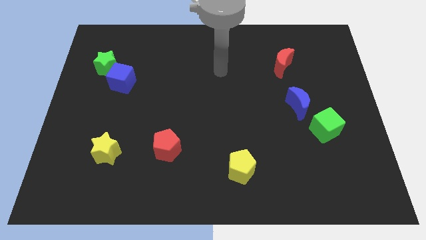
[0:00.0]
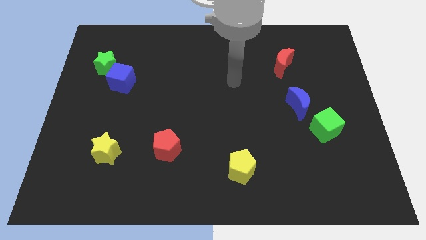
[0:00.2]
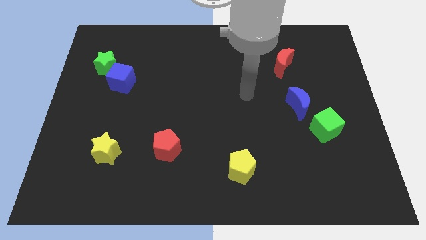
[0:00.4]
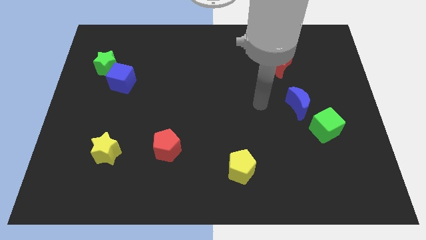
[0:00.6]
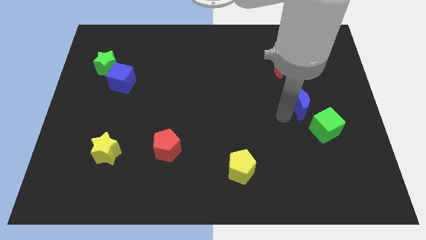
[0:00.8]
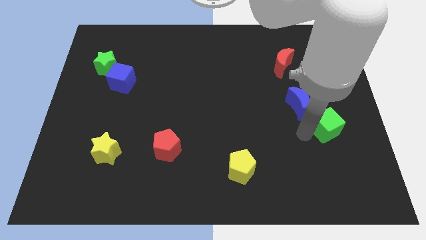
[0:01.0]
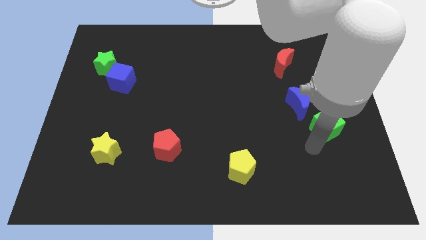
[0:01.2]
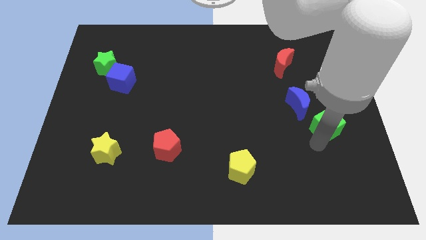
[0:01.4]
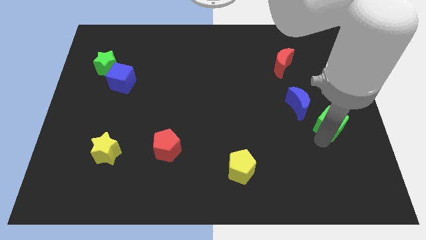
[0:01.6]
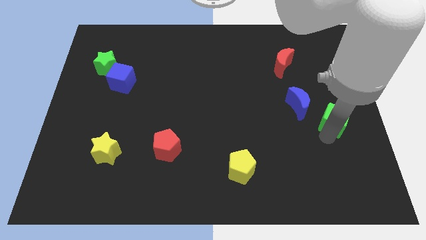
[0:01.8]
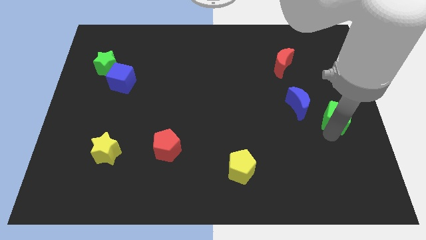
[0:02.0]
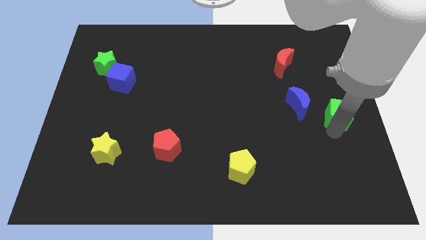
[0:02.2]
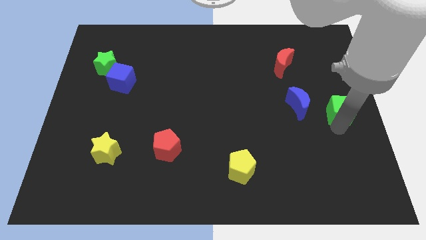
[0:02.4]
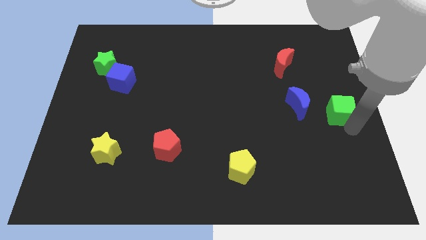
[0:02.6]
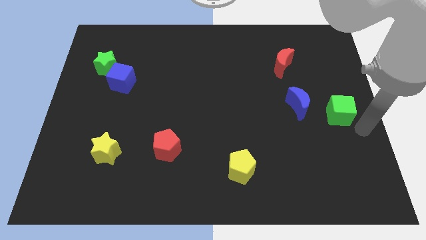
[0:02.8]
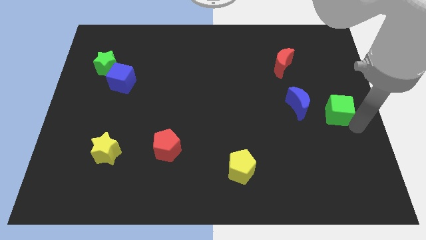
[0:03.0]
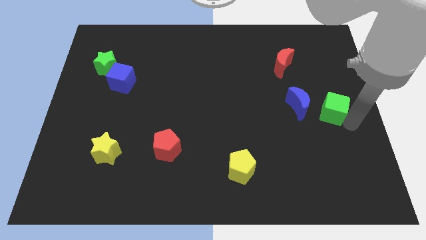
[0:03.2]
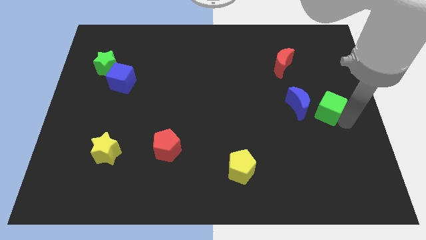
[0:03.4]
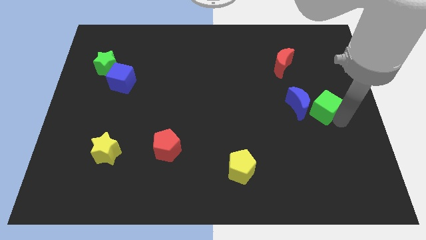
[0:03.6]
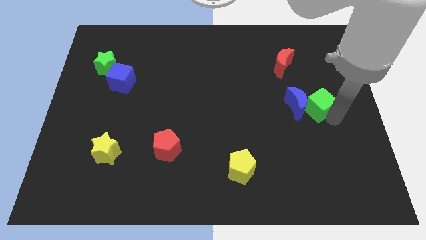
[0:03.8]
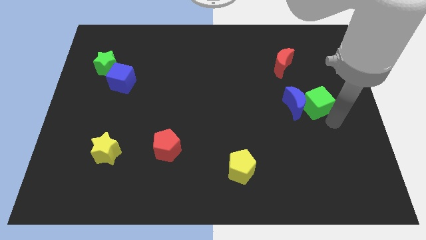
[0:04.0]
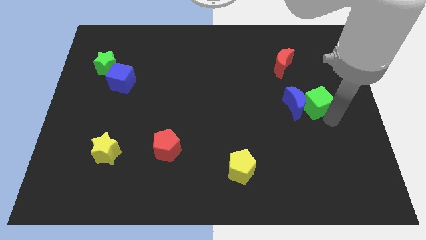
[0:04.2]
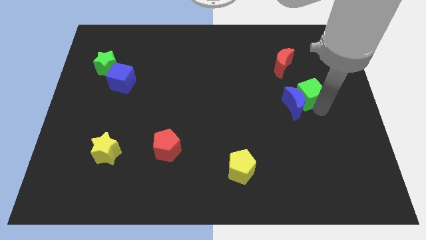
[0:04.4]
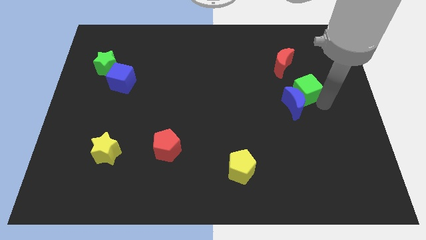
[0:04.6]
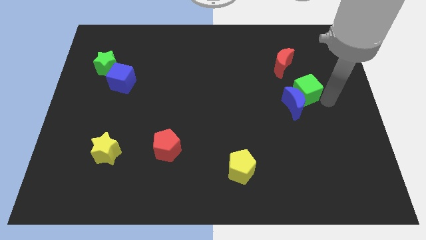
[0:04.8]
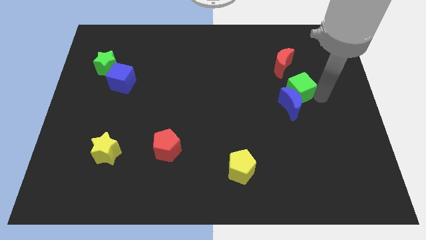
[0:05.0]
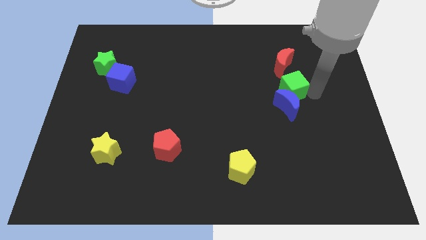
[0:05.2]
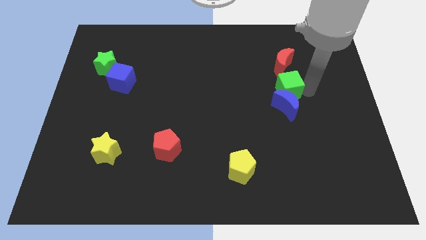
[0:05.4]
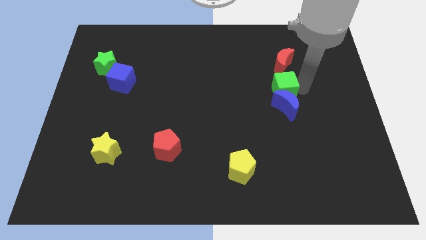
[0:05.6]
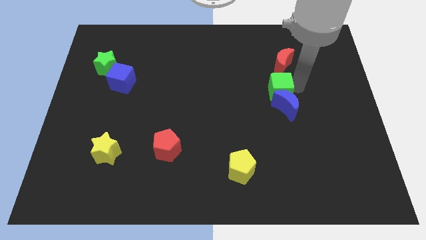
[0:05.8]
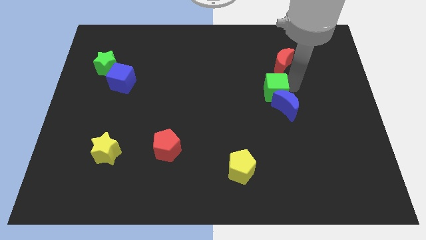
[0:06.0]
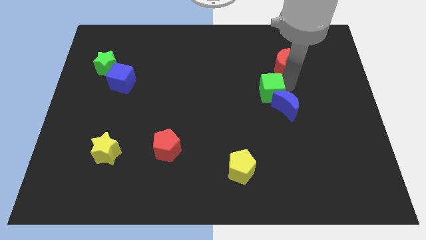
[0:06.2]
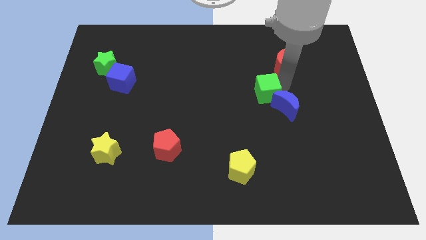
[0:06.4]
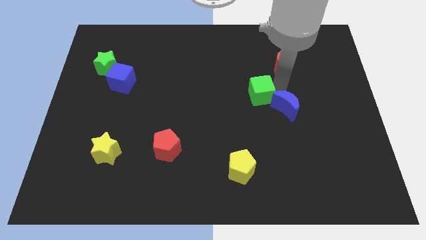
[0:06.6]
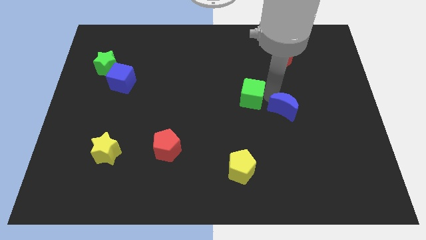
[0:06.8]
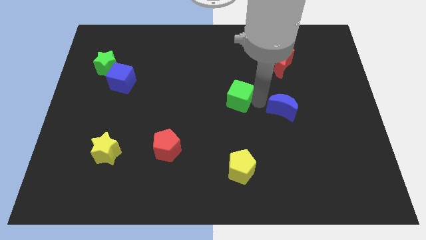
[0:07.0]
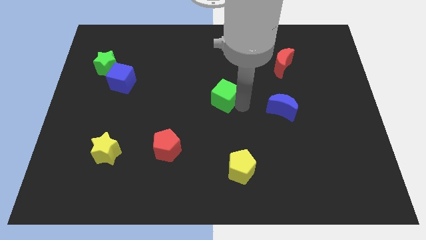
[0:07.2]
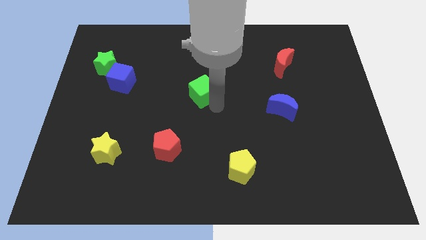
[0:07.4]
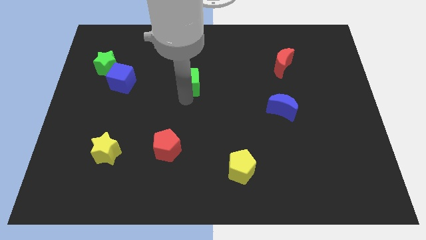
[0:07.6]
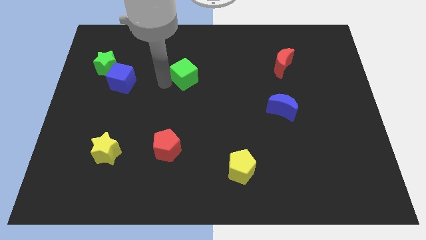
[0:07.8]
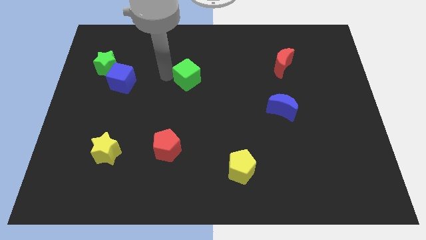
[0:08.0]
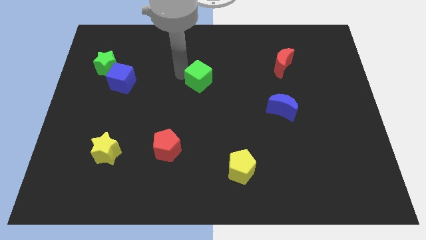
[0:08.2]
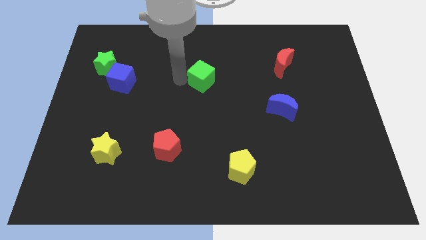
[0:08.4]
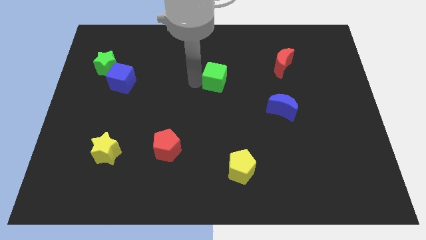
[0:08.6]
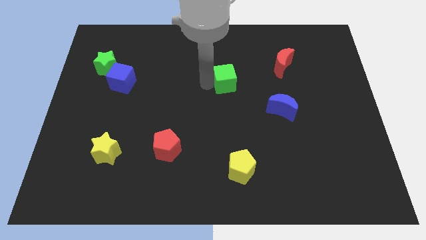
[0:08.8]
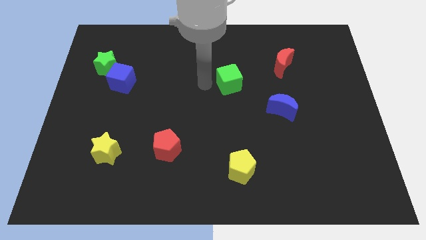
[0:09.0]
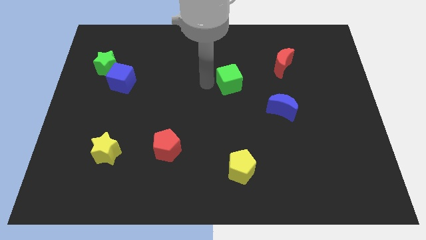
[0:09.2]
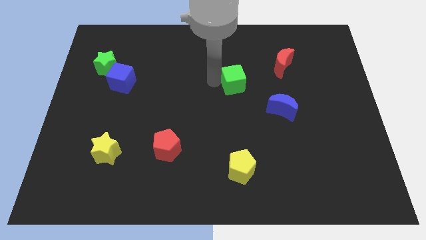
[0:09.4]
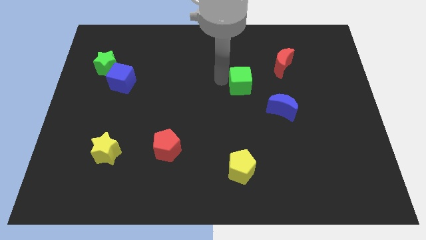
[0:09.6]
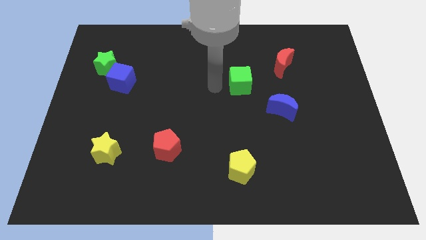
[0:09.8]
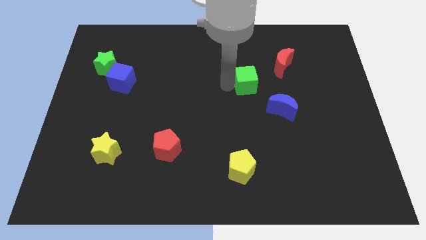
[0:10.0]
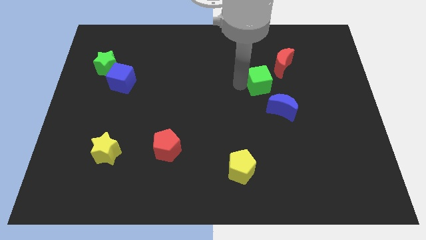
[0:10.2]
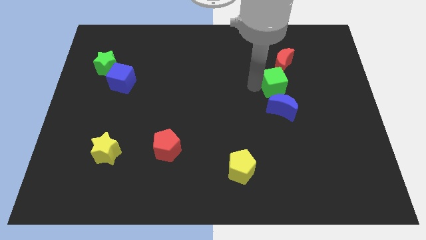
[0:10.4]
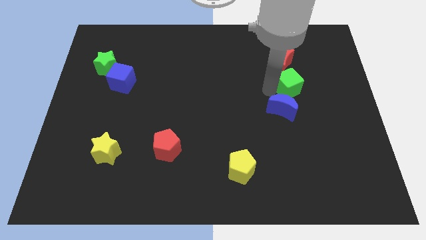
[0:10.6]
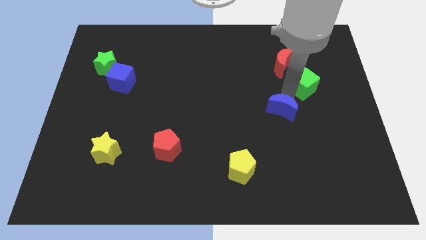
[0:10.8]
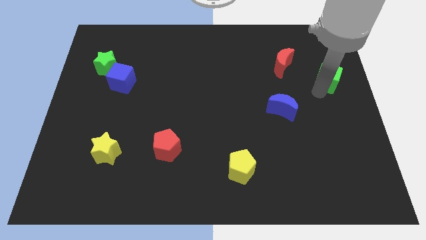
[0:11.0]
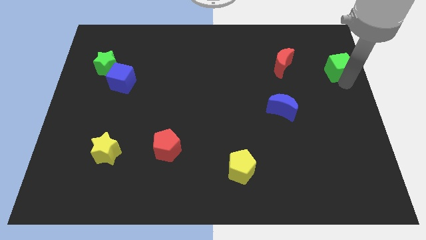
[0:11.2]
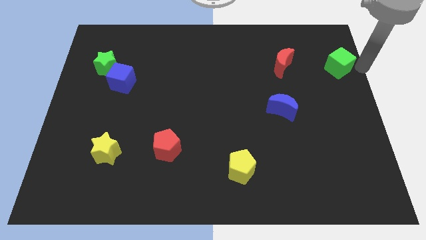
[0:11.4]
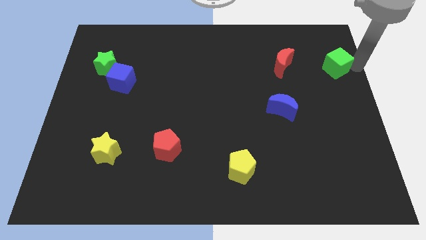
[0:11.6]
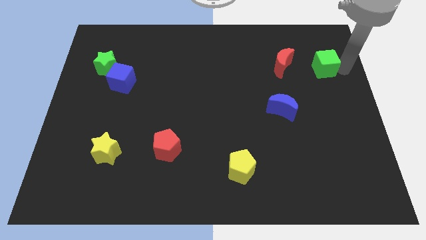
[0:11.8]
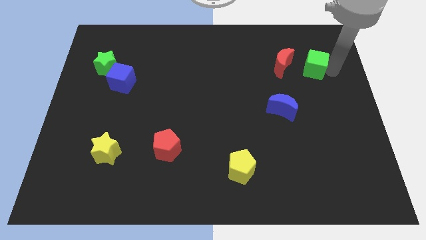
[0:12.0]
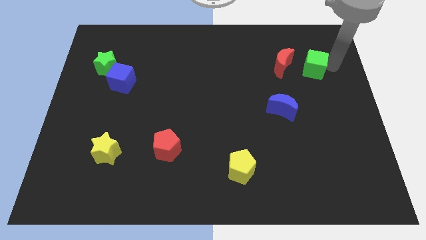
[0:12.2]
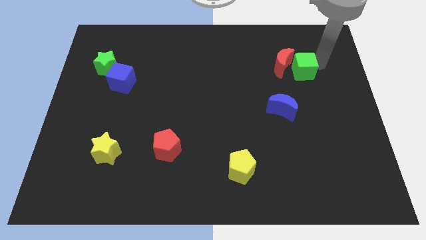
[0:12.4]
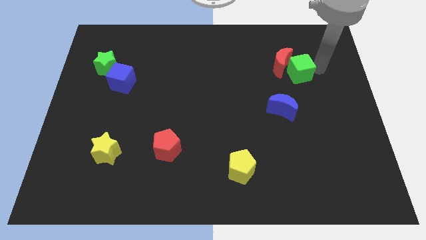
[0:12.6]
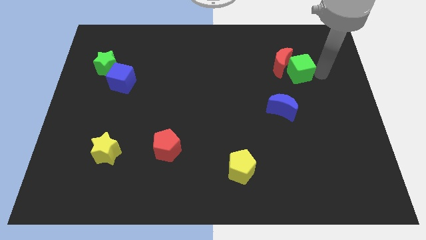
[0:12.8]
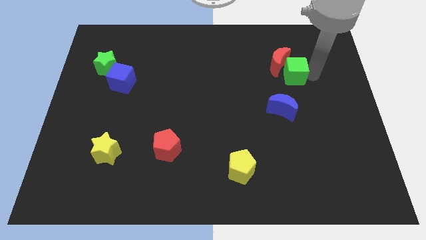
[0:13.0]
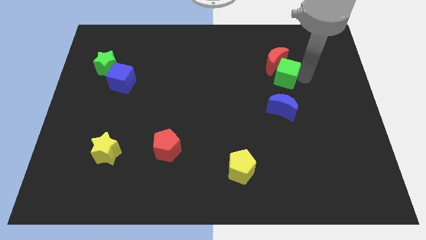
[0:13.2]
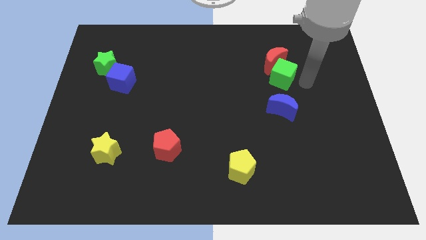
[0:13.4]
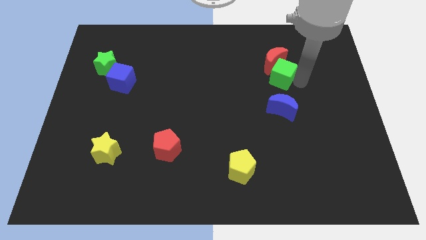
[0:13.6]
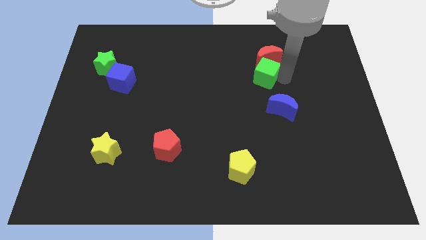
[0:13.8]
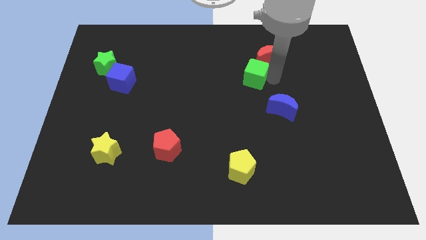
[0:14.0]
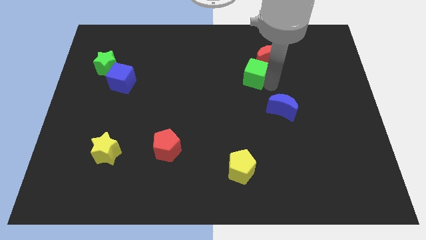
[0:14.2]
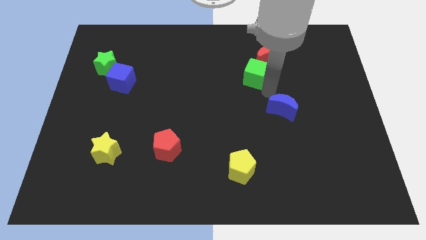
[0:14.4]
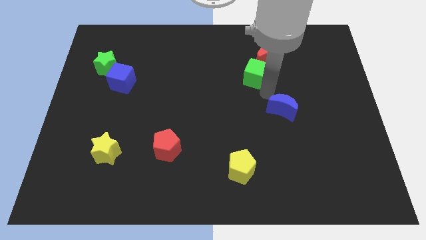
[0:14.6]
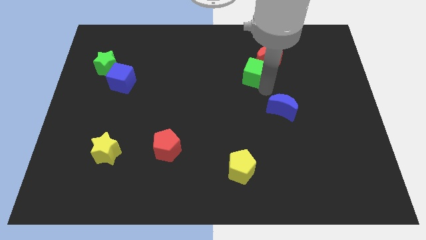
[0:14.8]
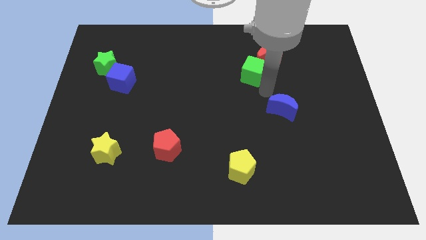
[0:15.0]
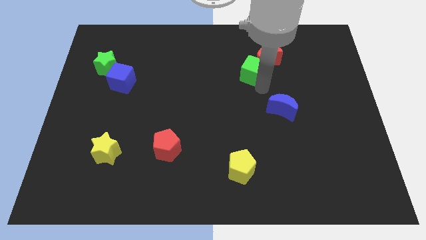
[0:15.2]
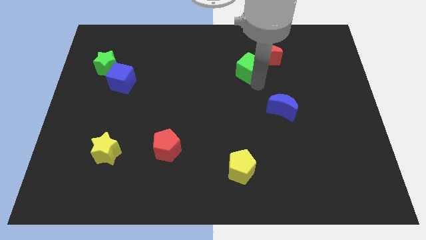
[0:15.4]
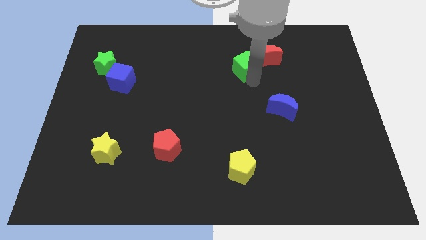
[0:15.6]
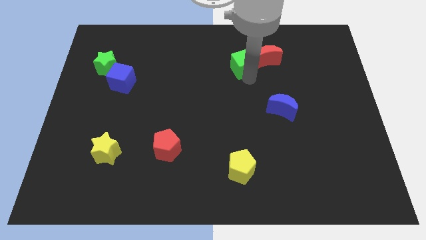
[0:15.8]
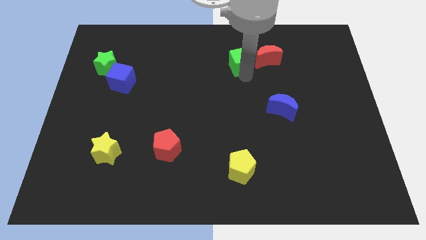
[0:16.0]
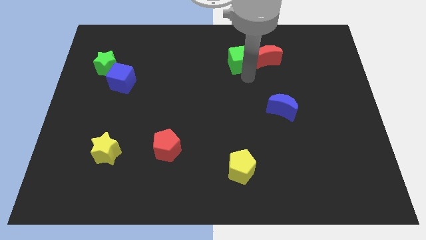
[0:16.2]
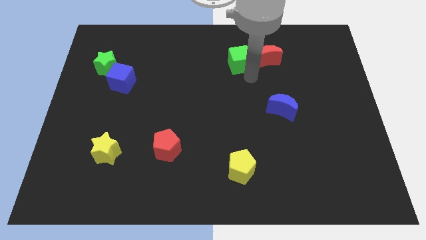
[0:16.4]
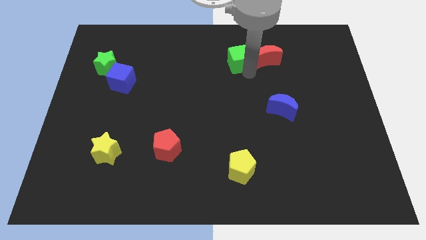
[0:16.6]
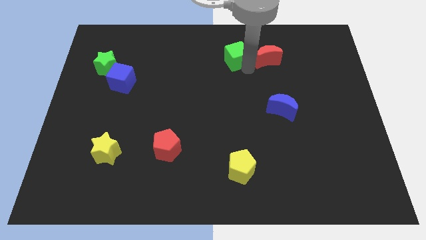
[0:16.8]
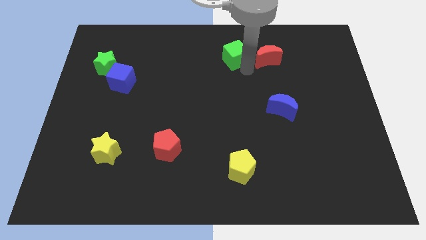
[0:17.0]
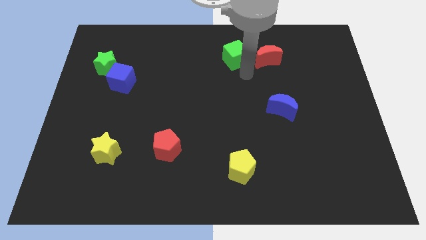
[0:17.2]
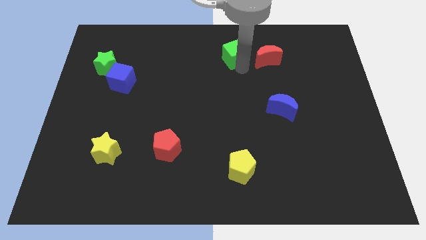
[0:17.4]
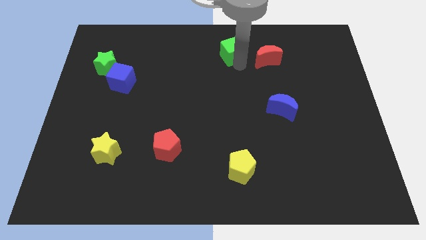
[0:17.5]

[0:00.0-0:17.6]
push the green cube to the top side
